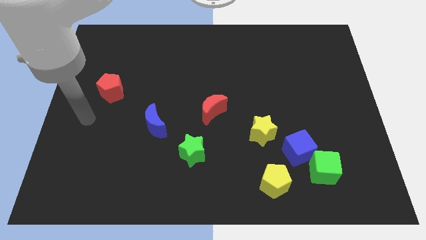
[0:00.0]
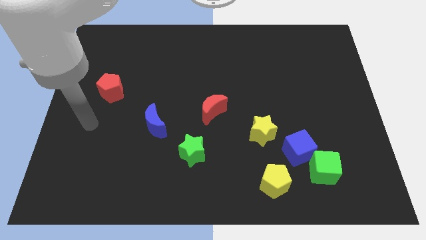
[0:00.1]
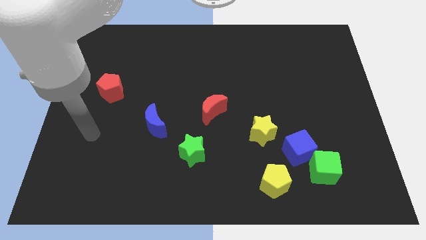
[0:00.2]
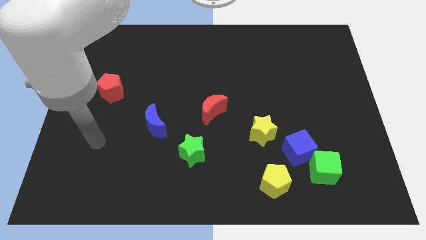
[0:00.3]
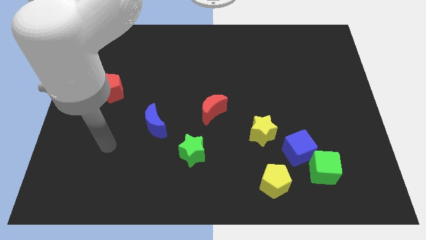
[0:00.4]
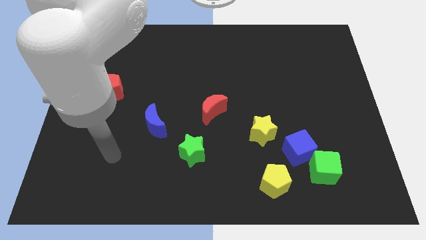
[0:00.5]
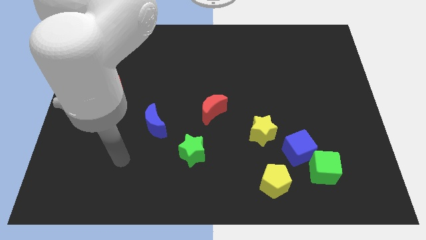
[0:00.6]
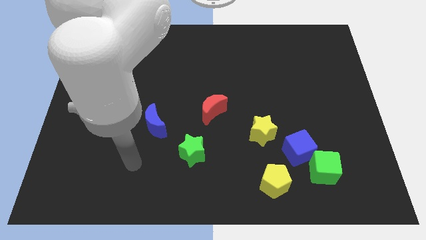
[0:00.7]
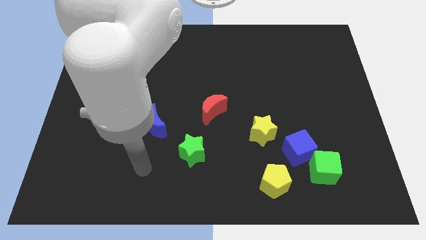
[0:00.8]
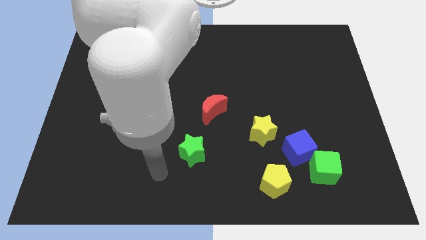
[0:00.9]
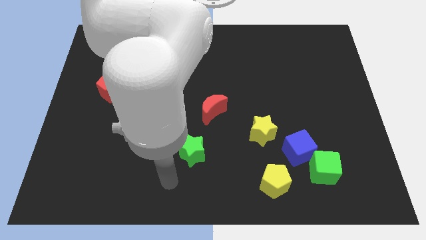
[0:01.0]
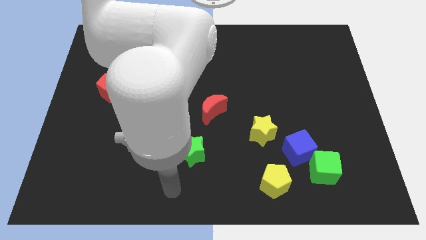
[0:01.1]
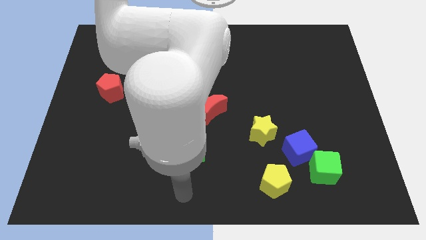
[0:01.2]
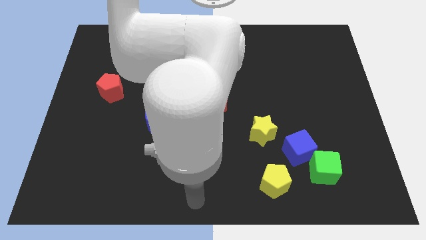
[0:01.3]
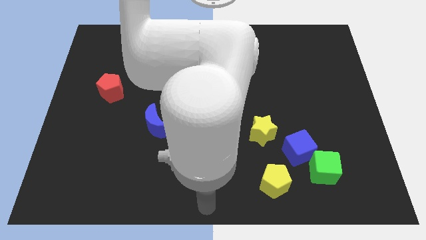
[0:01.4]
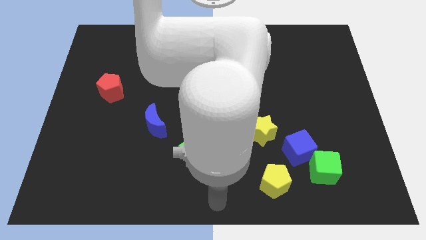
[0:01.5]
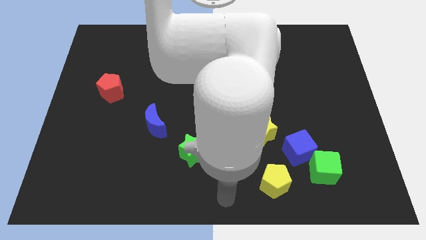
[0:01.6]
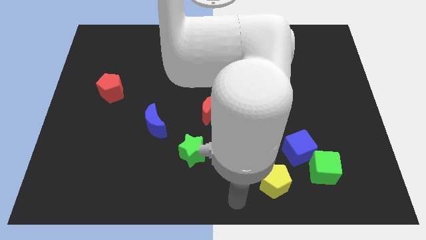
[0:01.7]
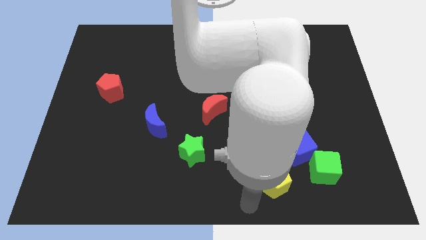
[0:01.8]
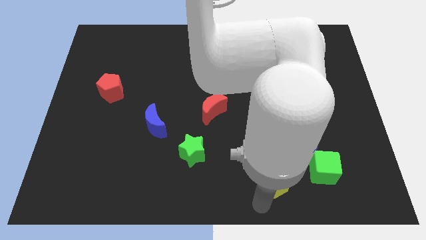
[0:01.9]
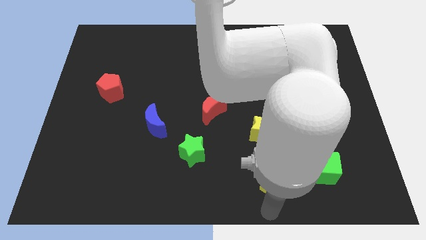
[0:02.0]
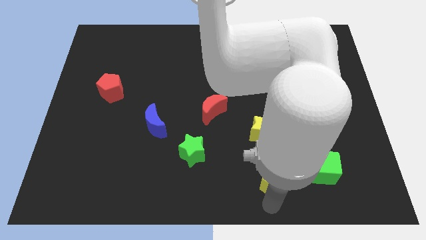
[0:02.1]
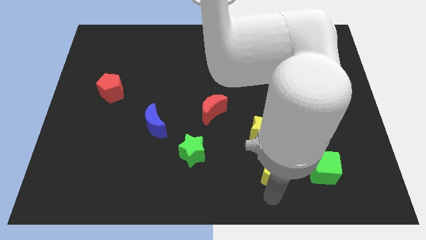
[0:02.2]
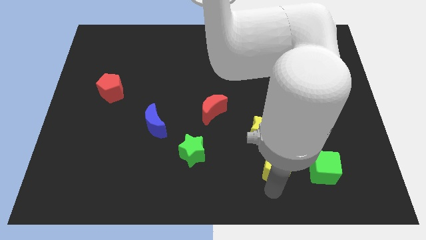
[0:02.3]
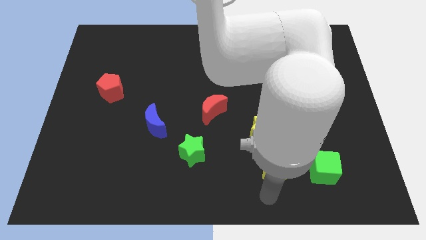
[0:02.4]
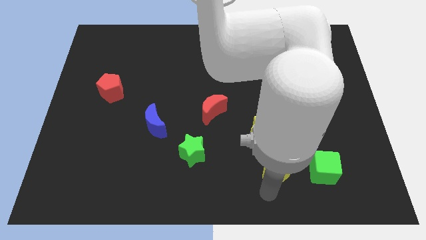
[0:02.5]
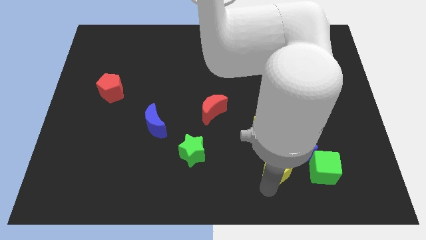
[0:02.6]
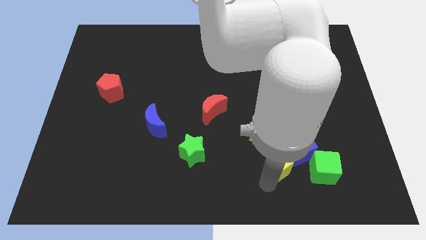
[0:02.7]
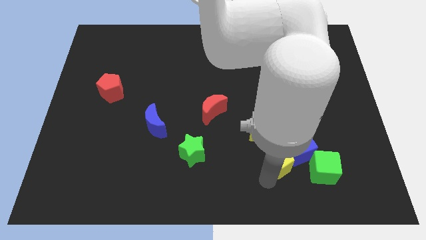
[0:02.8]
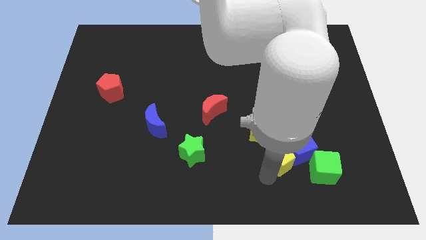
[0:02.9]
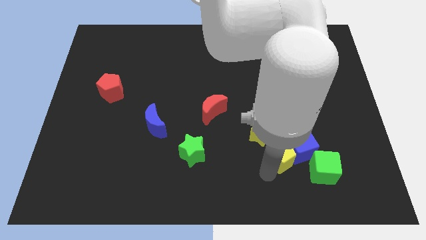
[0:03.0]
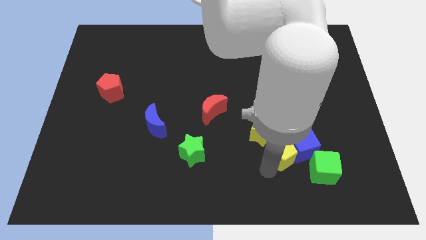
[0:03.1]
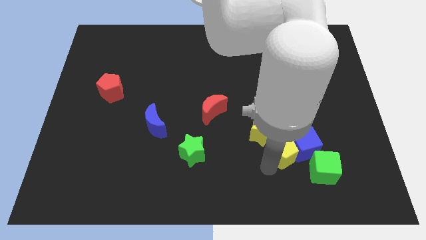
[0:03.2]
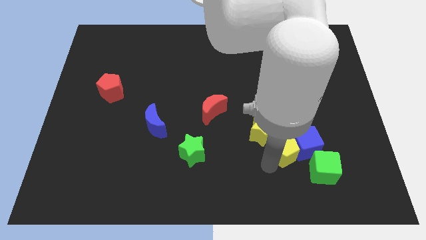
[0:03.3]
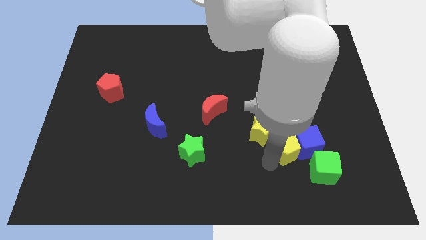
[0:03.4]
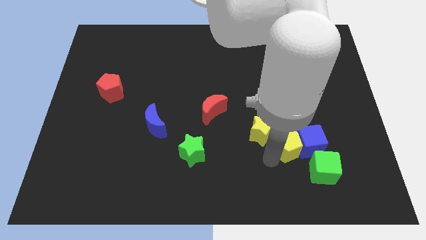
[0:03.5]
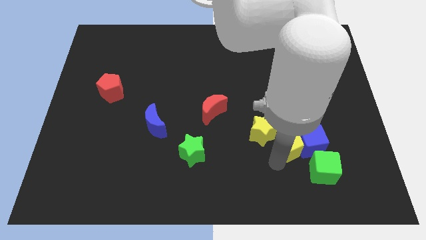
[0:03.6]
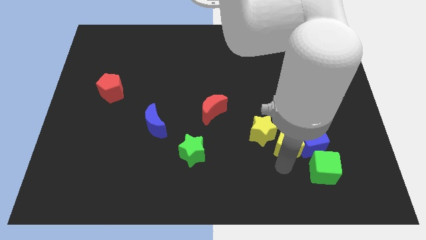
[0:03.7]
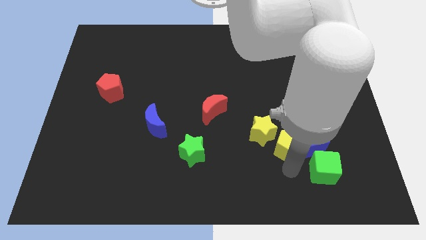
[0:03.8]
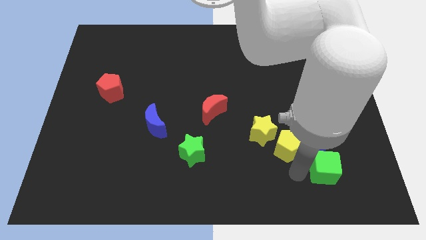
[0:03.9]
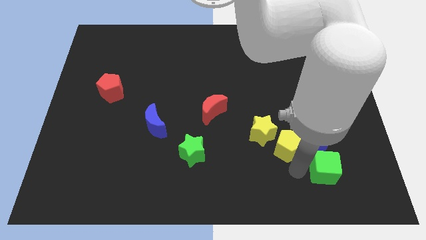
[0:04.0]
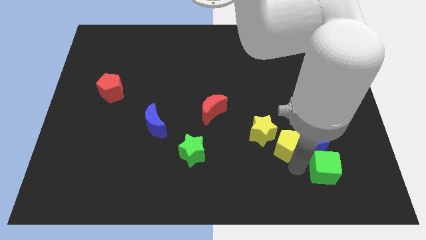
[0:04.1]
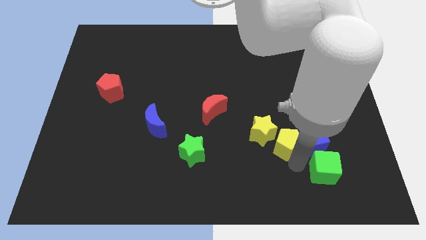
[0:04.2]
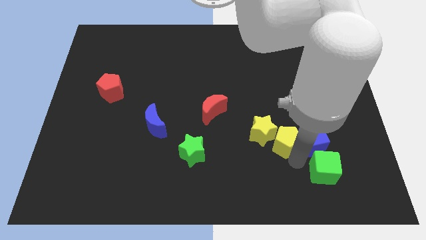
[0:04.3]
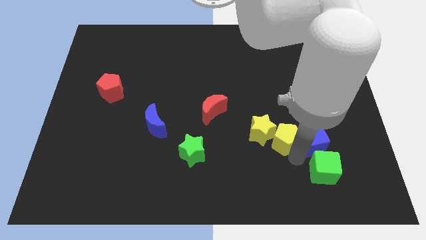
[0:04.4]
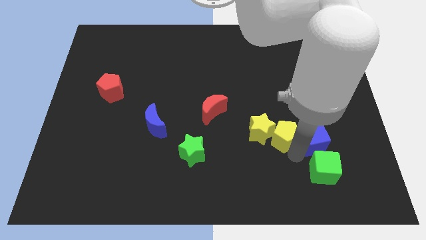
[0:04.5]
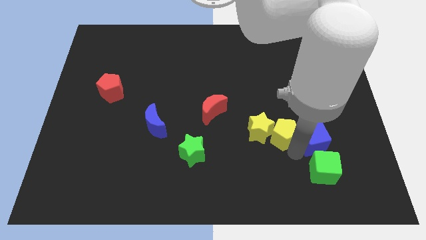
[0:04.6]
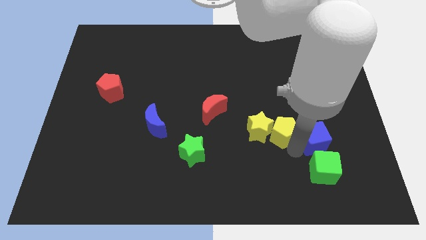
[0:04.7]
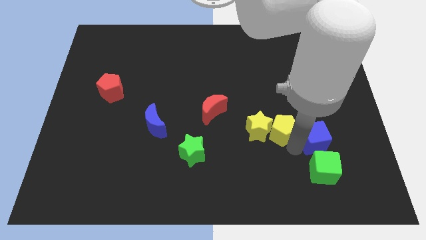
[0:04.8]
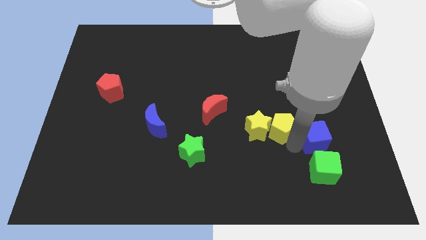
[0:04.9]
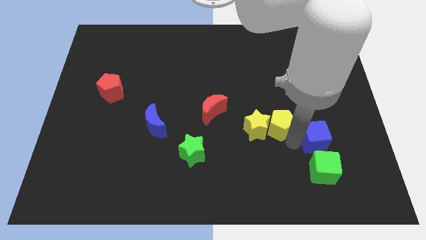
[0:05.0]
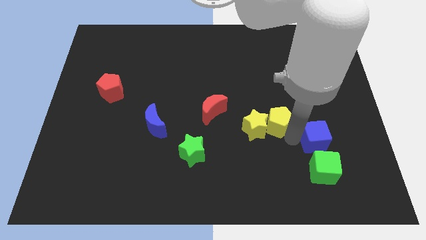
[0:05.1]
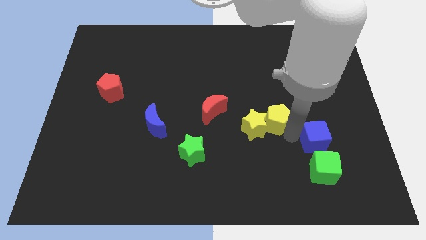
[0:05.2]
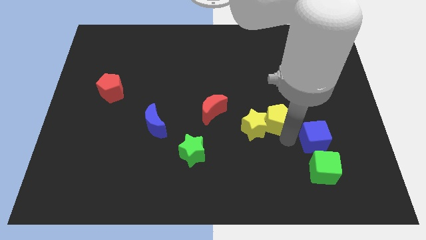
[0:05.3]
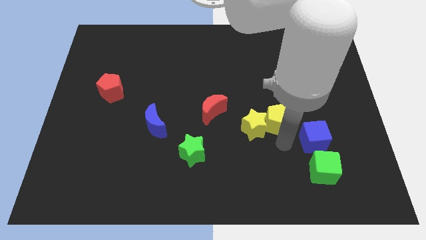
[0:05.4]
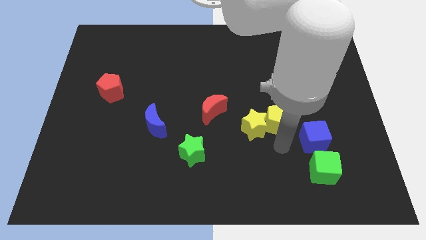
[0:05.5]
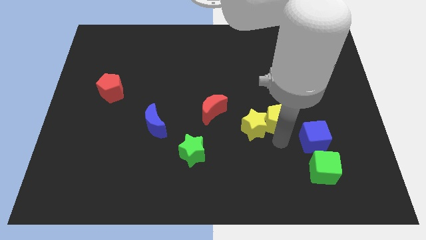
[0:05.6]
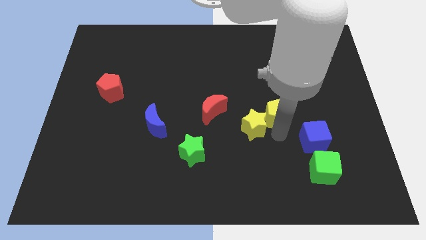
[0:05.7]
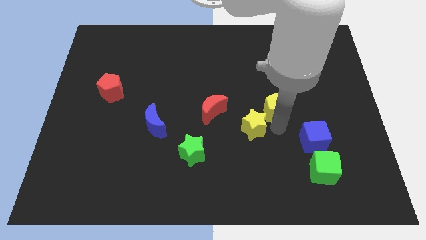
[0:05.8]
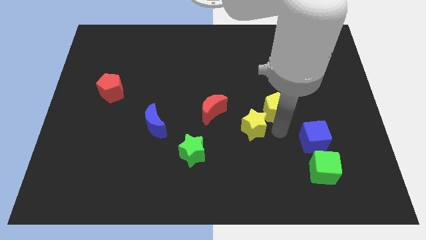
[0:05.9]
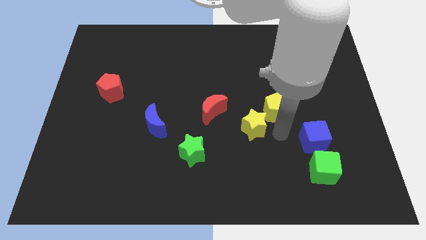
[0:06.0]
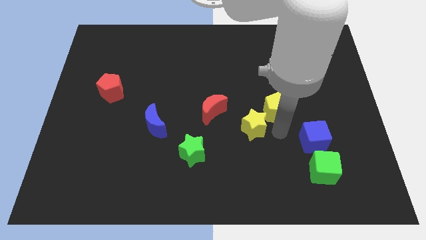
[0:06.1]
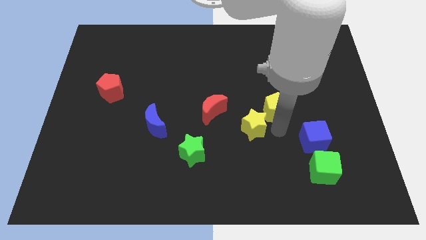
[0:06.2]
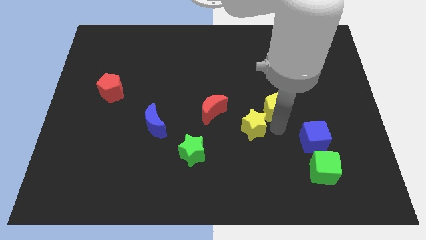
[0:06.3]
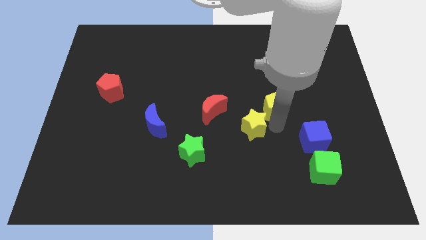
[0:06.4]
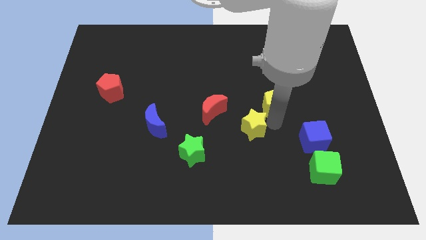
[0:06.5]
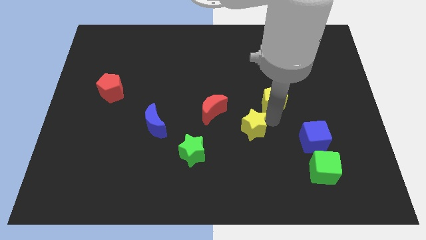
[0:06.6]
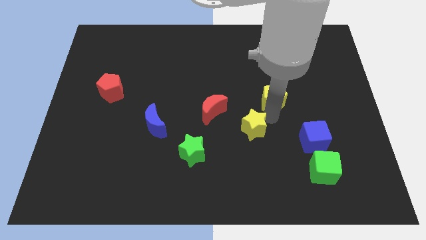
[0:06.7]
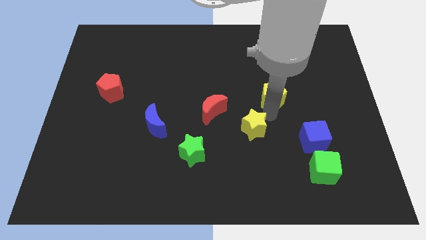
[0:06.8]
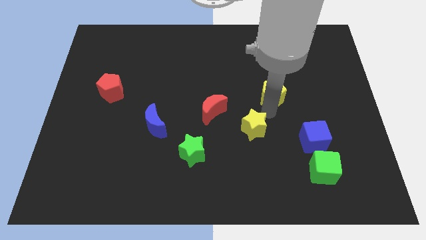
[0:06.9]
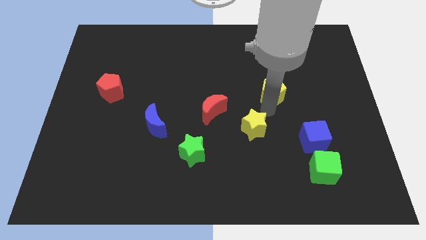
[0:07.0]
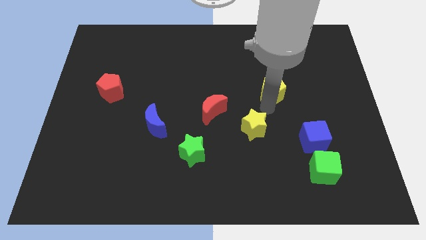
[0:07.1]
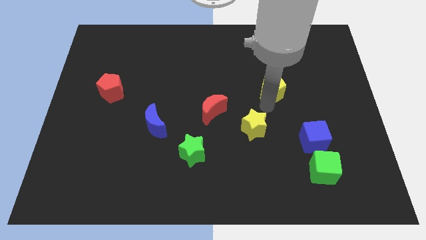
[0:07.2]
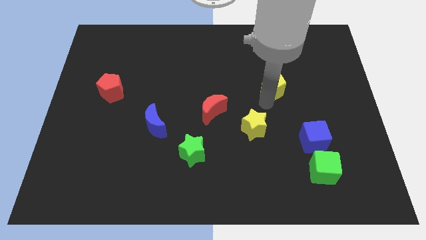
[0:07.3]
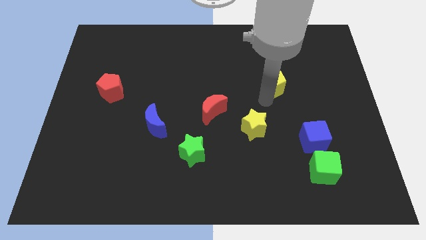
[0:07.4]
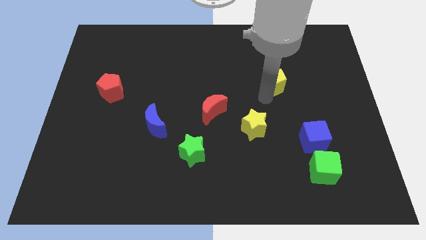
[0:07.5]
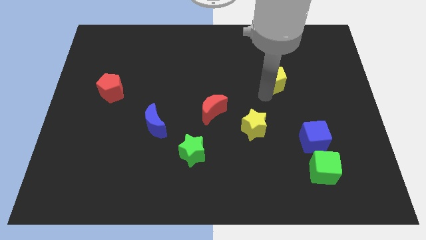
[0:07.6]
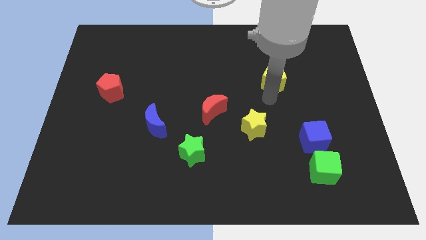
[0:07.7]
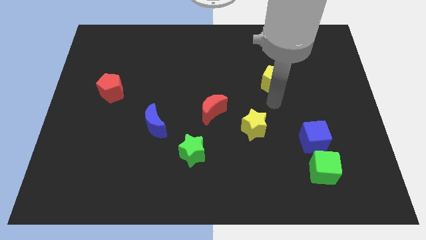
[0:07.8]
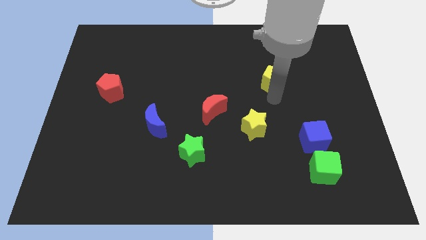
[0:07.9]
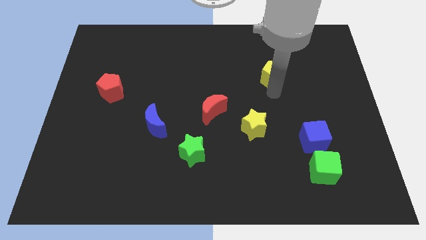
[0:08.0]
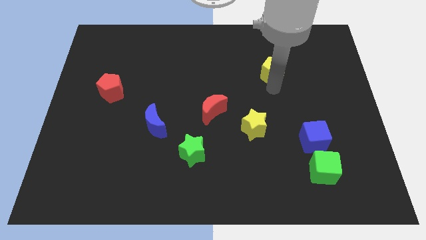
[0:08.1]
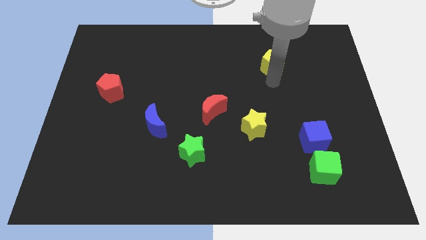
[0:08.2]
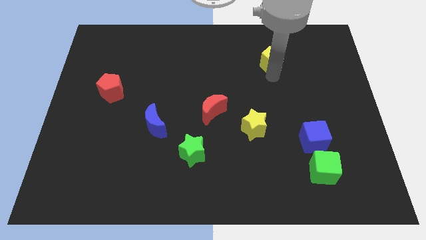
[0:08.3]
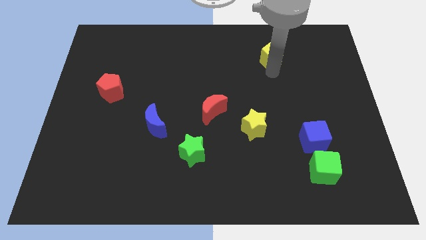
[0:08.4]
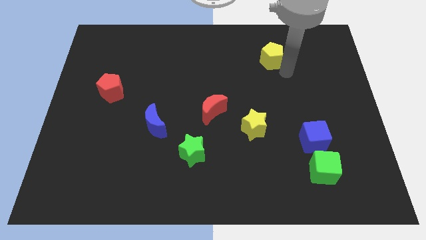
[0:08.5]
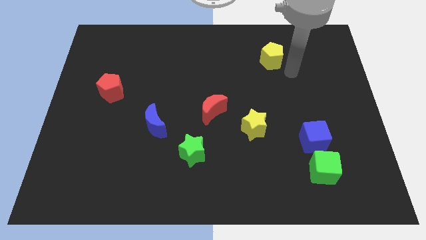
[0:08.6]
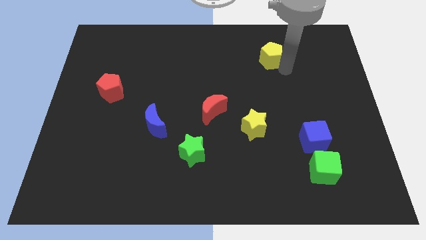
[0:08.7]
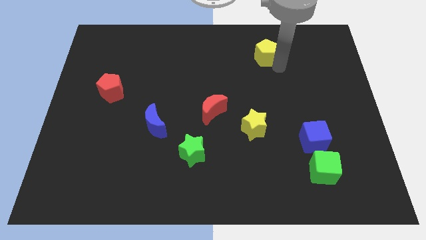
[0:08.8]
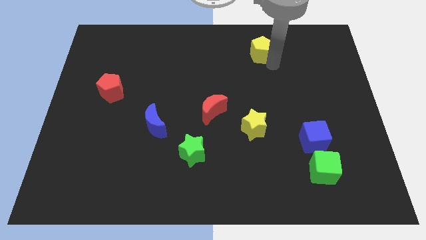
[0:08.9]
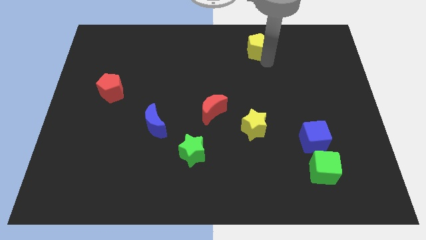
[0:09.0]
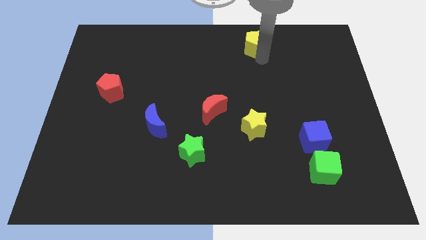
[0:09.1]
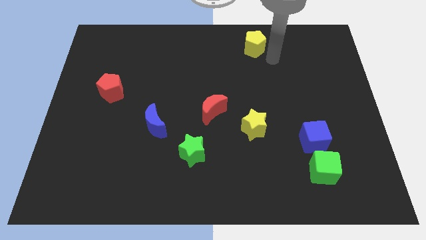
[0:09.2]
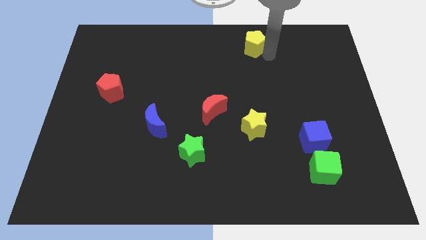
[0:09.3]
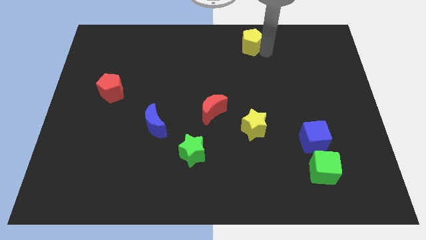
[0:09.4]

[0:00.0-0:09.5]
push the yellow pentagon to the top side
